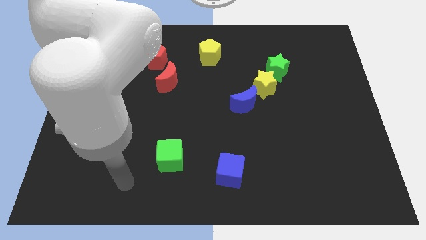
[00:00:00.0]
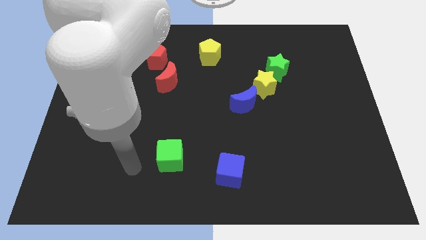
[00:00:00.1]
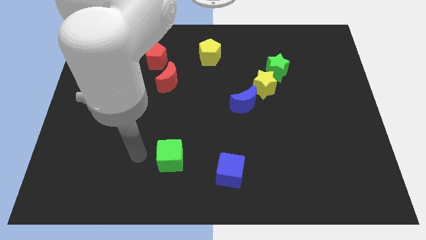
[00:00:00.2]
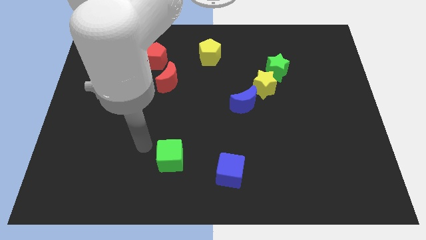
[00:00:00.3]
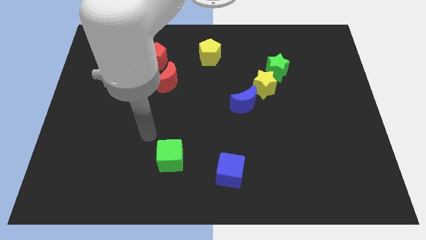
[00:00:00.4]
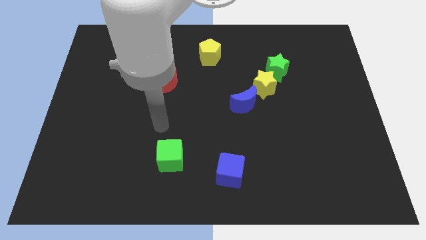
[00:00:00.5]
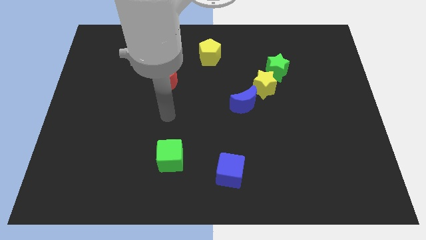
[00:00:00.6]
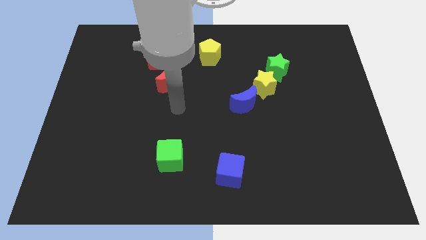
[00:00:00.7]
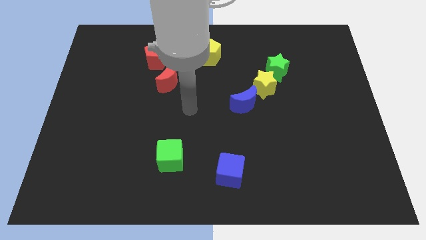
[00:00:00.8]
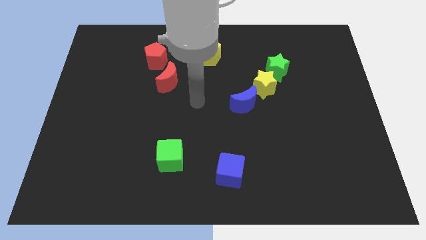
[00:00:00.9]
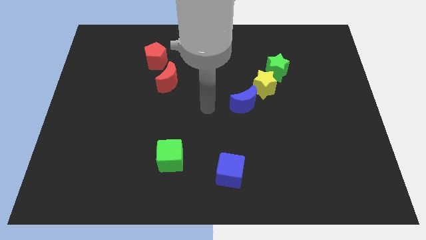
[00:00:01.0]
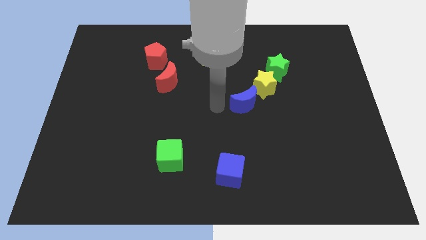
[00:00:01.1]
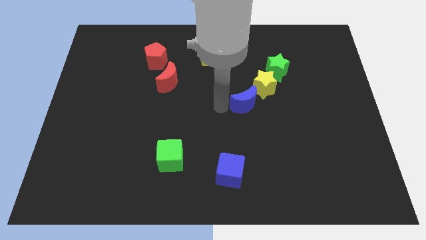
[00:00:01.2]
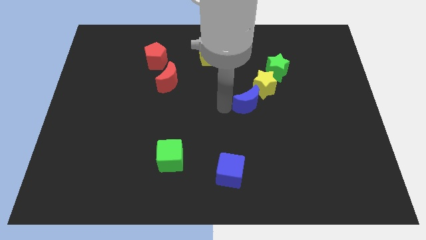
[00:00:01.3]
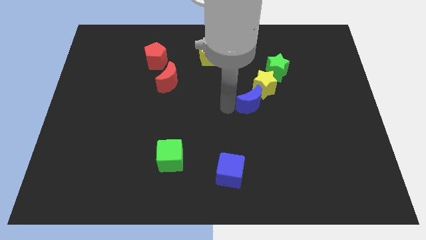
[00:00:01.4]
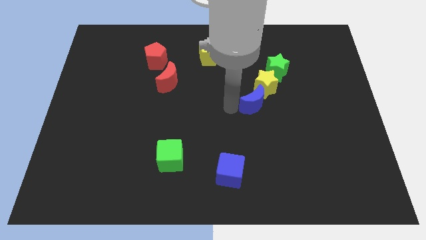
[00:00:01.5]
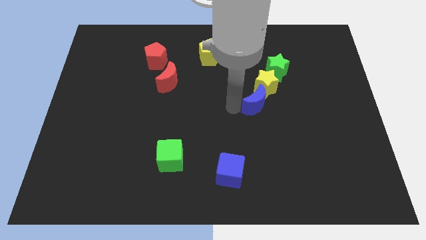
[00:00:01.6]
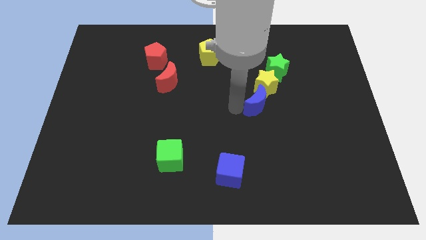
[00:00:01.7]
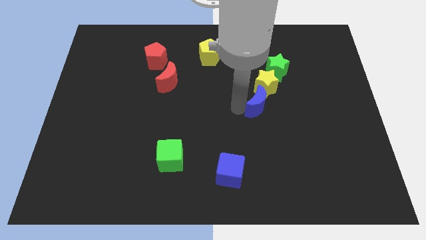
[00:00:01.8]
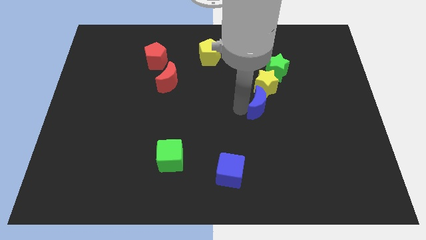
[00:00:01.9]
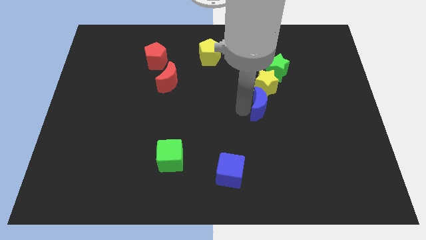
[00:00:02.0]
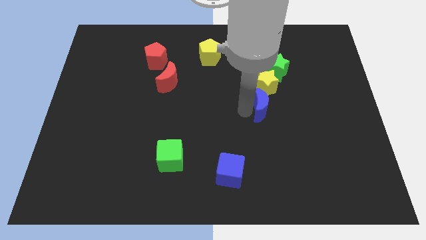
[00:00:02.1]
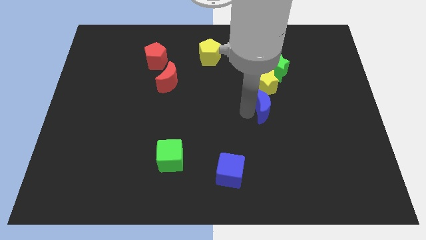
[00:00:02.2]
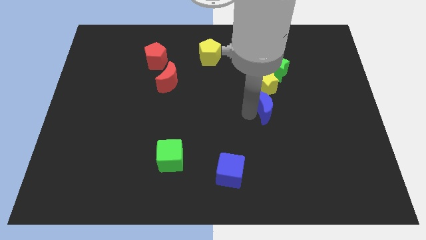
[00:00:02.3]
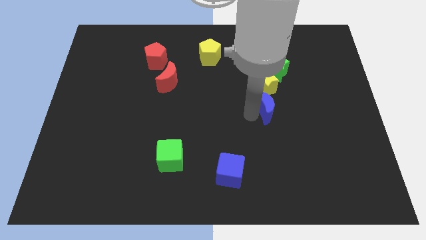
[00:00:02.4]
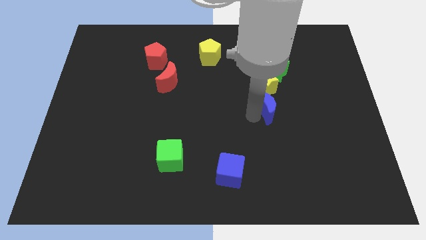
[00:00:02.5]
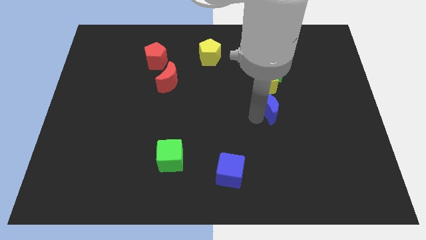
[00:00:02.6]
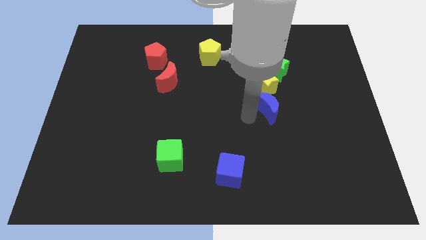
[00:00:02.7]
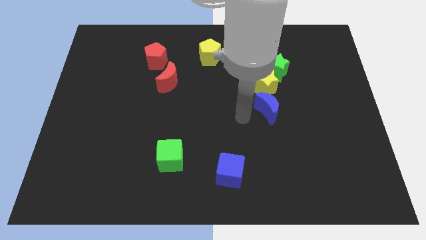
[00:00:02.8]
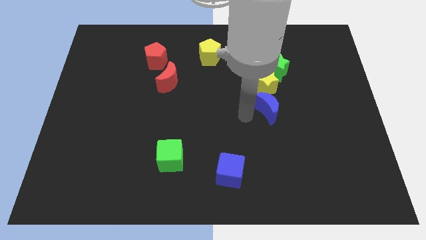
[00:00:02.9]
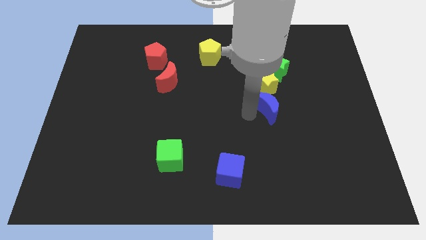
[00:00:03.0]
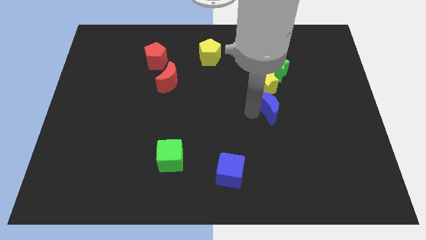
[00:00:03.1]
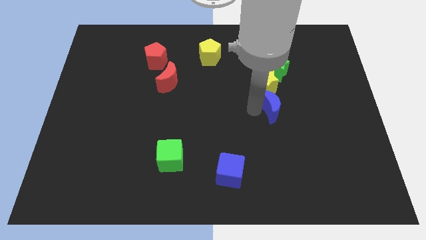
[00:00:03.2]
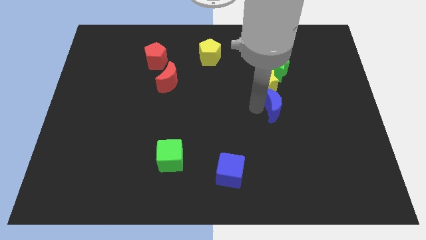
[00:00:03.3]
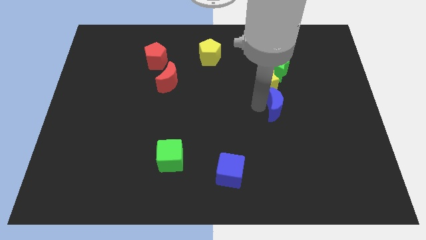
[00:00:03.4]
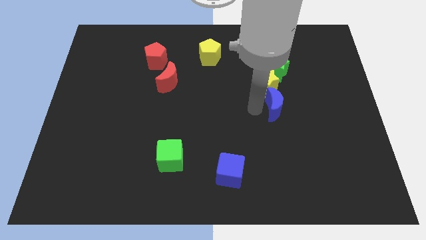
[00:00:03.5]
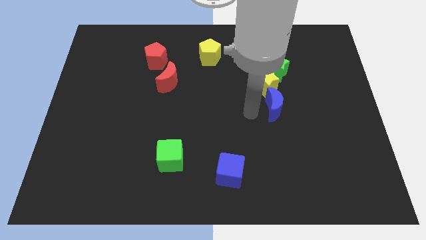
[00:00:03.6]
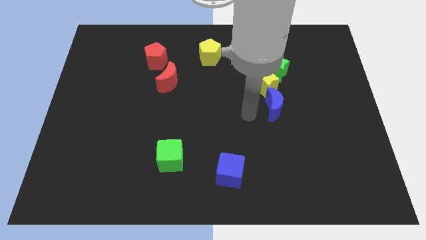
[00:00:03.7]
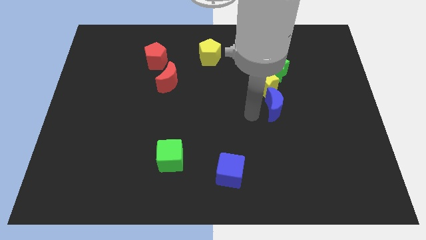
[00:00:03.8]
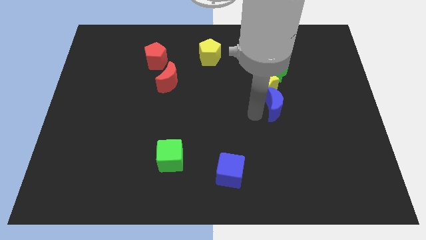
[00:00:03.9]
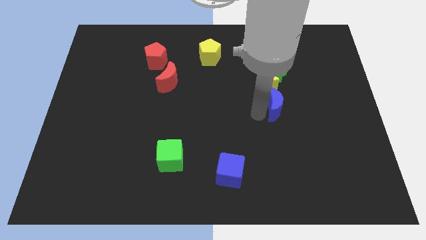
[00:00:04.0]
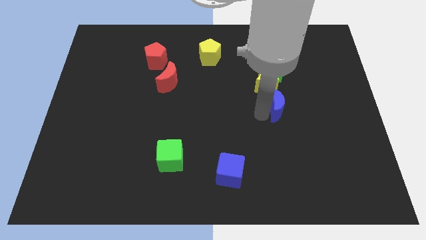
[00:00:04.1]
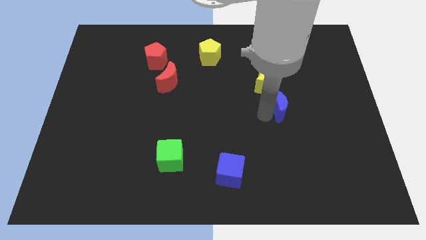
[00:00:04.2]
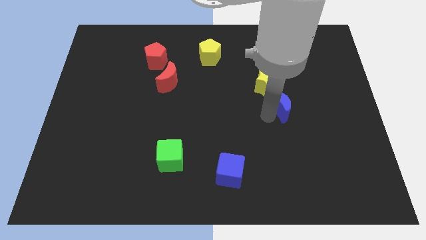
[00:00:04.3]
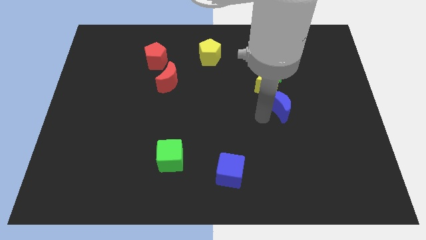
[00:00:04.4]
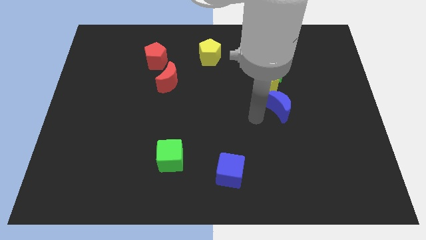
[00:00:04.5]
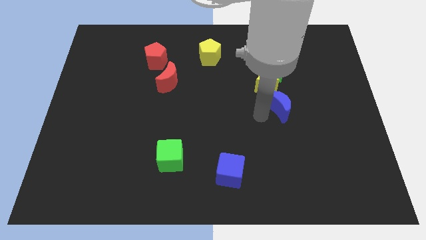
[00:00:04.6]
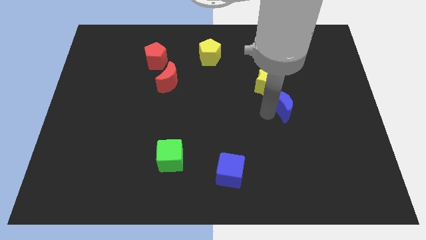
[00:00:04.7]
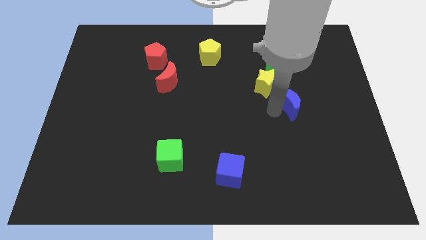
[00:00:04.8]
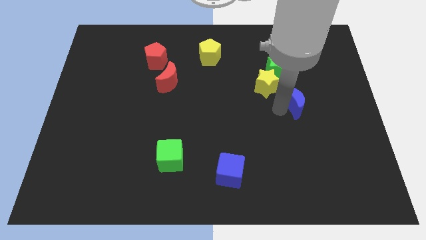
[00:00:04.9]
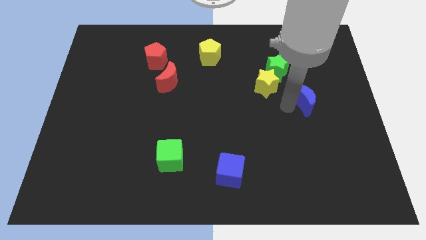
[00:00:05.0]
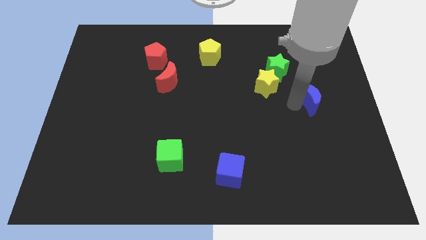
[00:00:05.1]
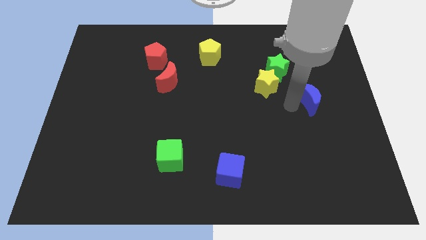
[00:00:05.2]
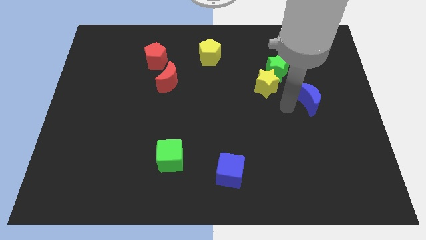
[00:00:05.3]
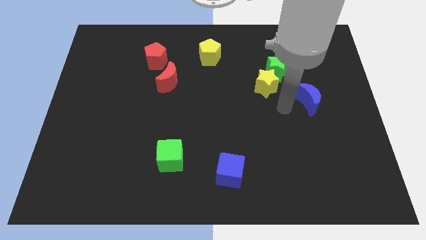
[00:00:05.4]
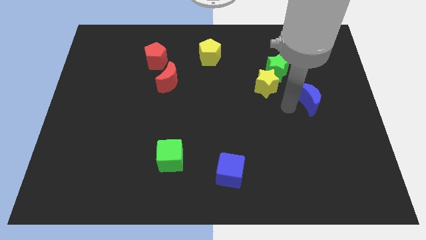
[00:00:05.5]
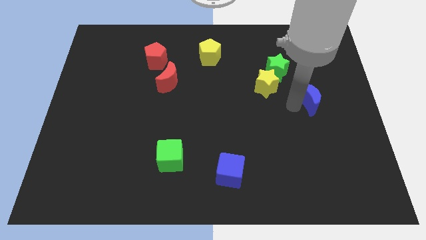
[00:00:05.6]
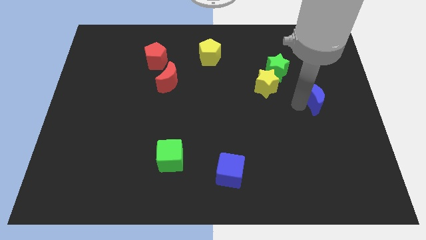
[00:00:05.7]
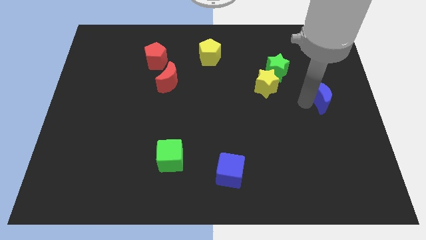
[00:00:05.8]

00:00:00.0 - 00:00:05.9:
push the blue moon to the right side of the board
